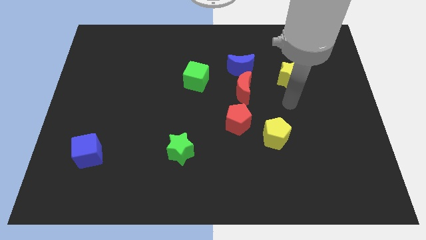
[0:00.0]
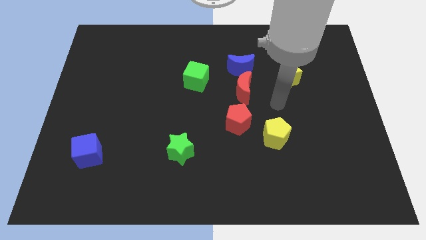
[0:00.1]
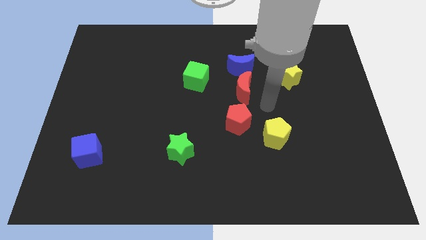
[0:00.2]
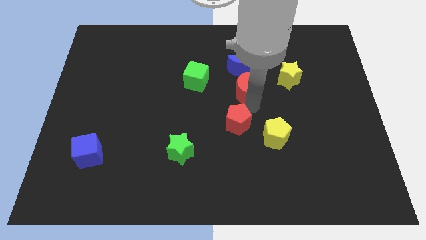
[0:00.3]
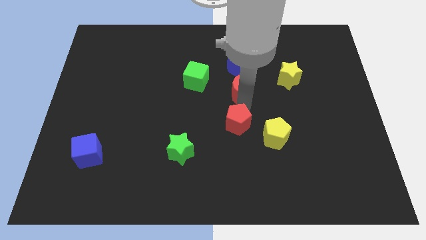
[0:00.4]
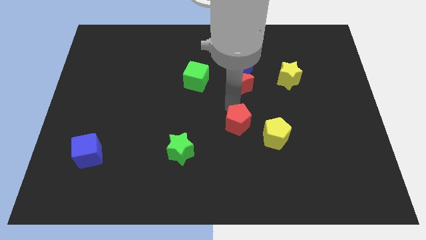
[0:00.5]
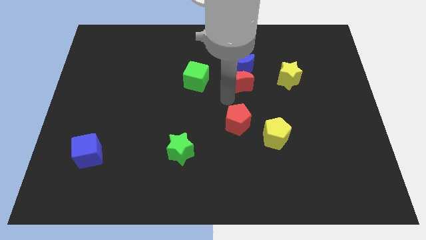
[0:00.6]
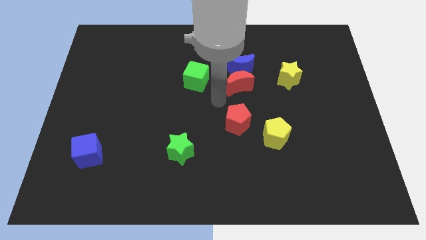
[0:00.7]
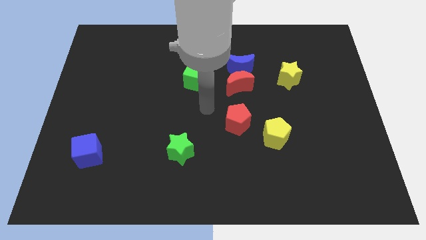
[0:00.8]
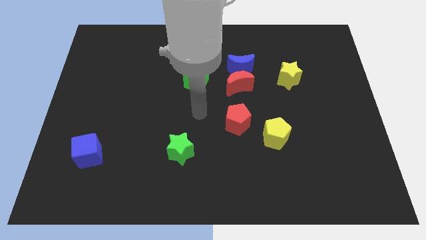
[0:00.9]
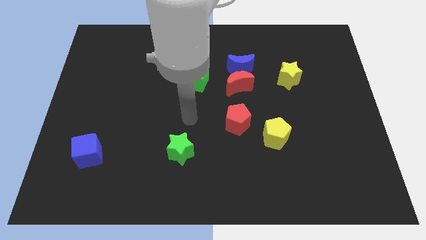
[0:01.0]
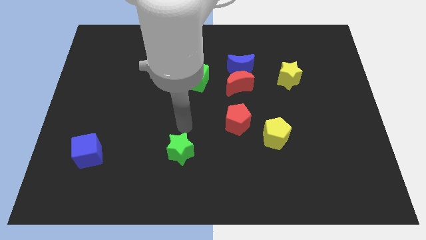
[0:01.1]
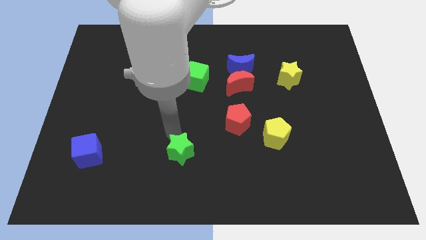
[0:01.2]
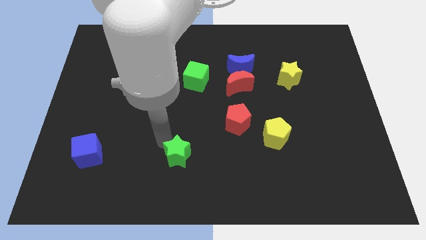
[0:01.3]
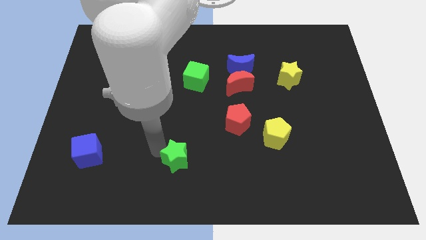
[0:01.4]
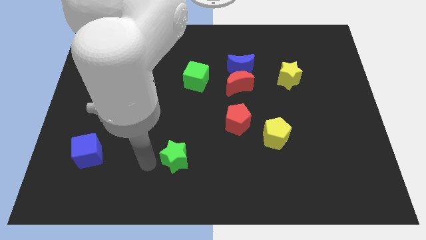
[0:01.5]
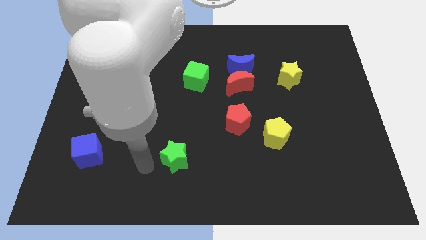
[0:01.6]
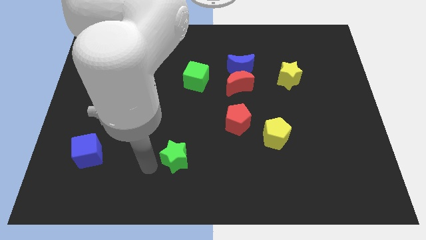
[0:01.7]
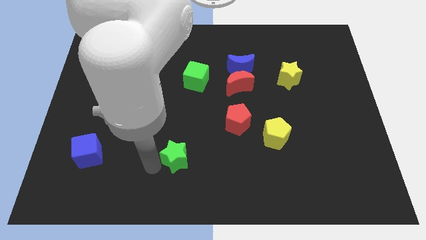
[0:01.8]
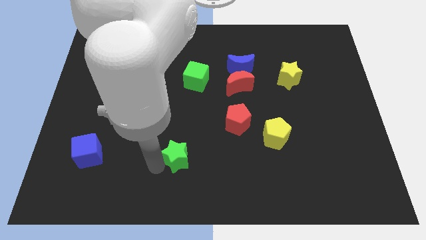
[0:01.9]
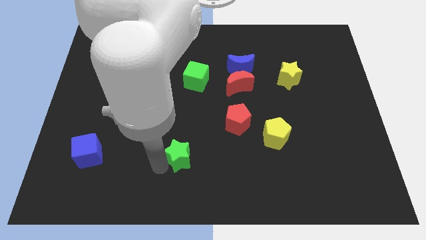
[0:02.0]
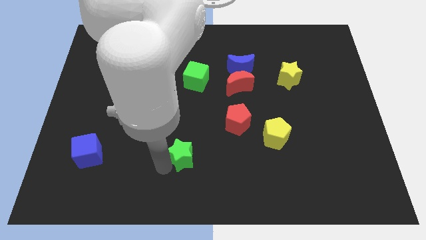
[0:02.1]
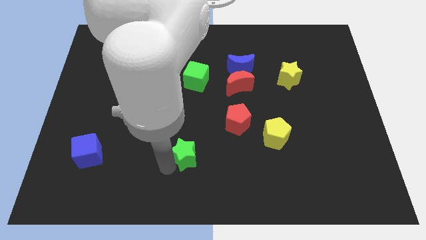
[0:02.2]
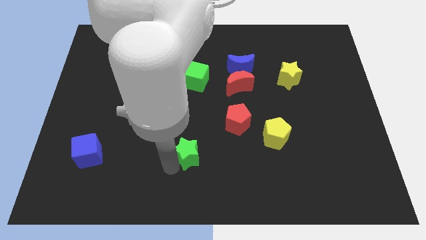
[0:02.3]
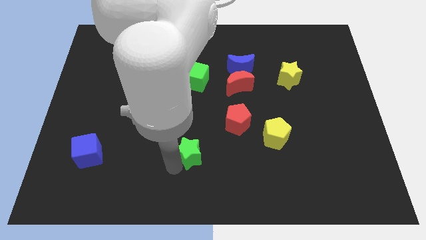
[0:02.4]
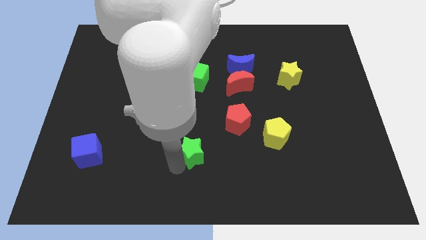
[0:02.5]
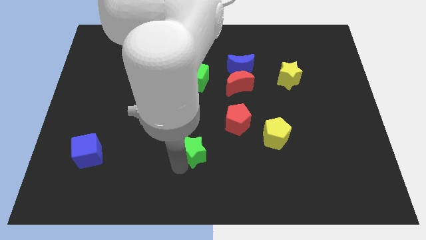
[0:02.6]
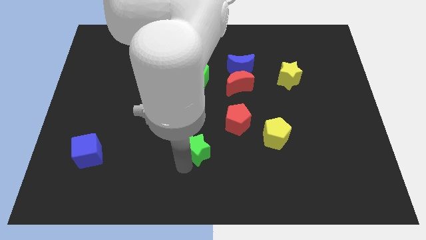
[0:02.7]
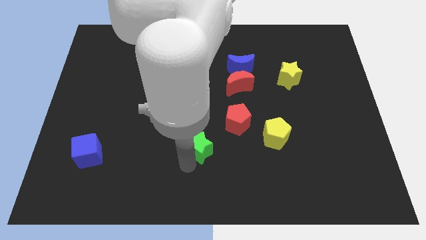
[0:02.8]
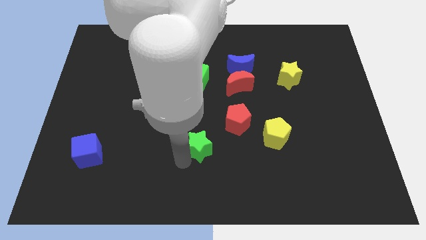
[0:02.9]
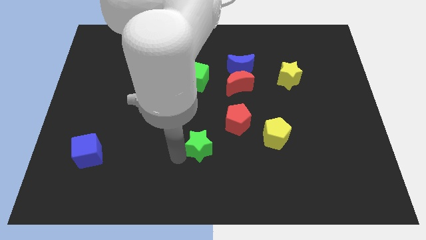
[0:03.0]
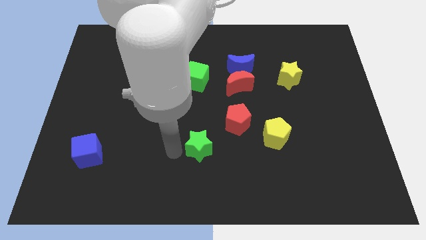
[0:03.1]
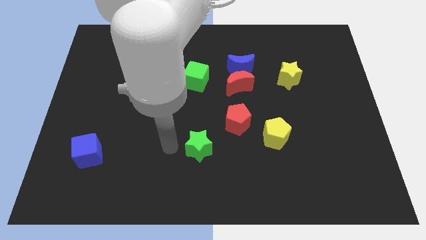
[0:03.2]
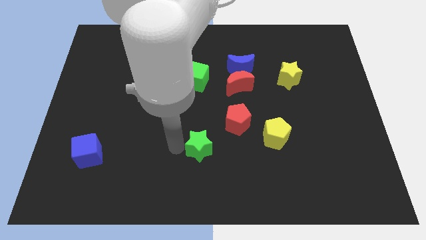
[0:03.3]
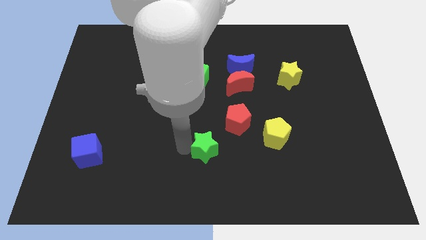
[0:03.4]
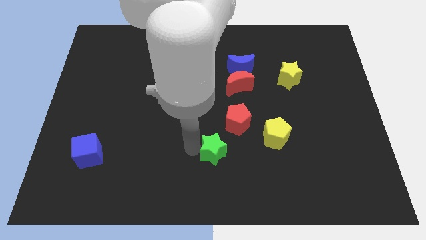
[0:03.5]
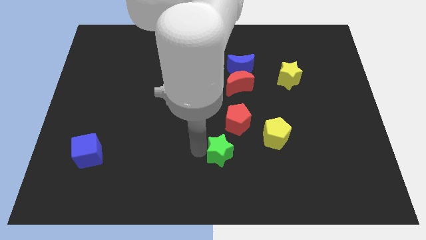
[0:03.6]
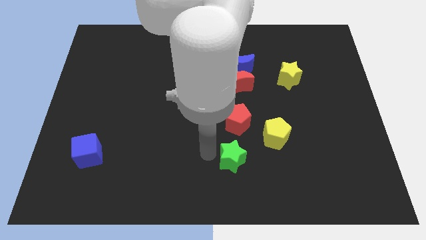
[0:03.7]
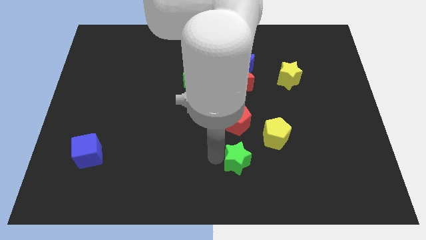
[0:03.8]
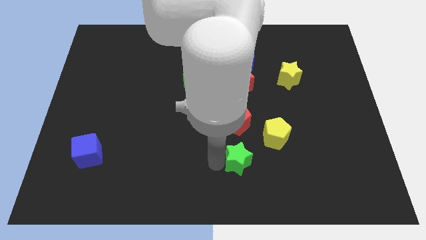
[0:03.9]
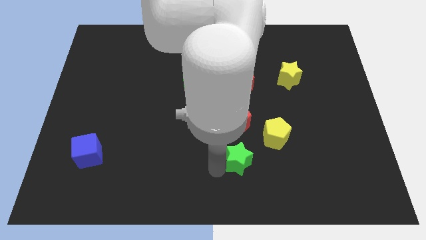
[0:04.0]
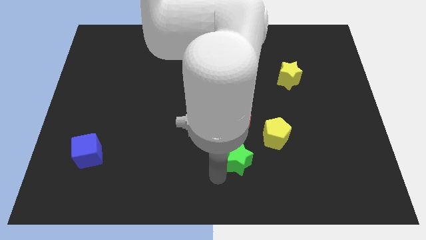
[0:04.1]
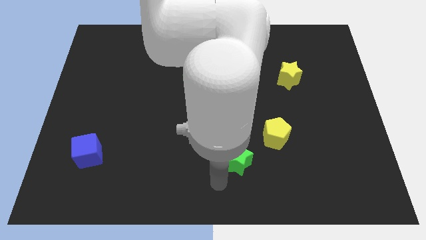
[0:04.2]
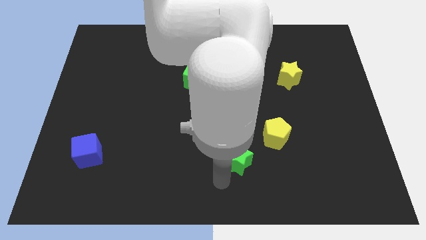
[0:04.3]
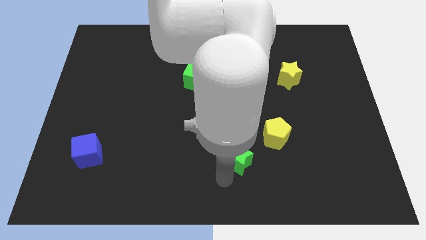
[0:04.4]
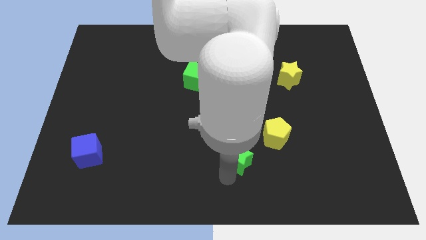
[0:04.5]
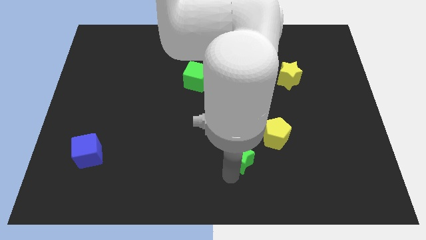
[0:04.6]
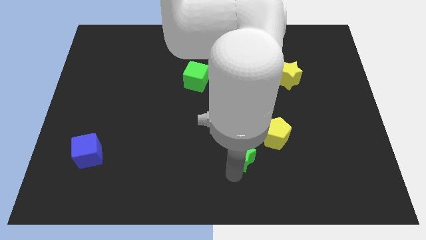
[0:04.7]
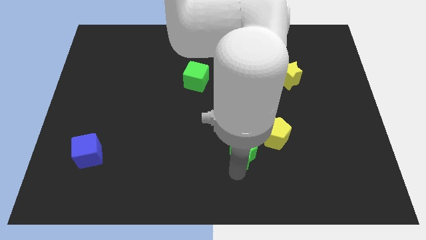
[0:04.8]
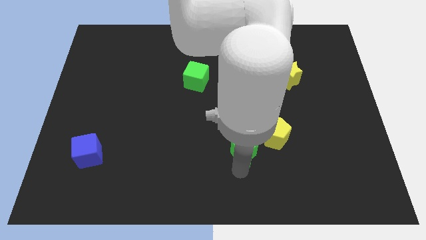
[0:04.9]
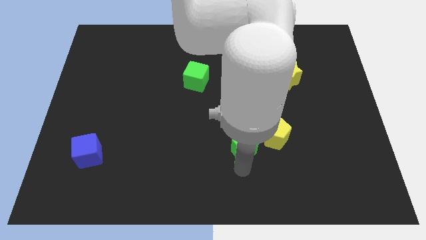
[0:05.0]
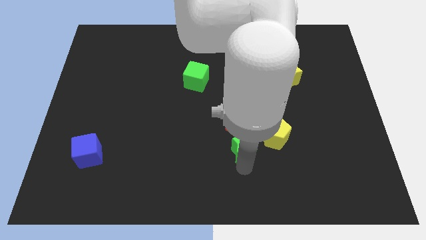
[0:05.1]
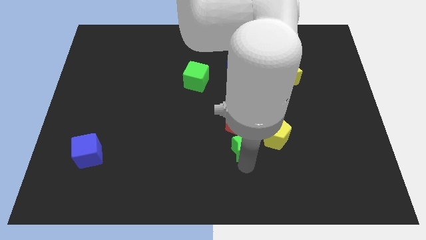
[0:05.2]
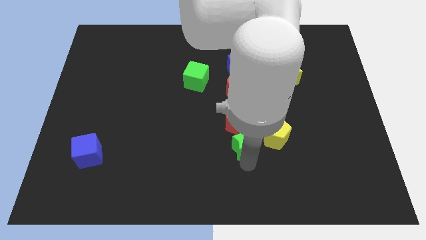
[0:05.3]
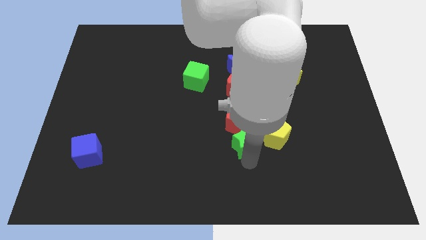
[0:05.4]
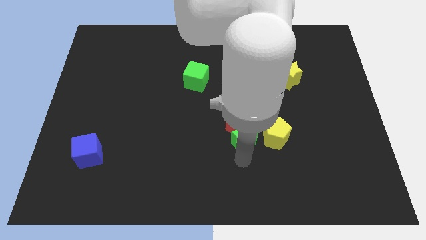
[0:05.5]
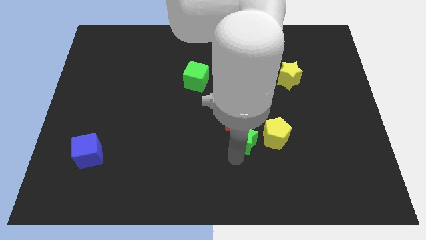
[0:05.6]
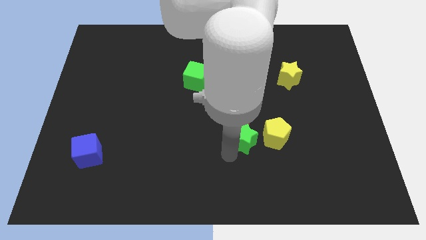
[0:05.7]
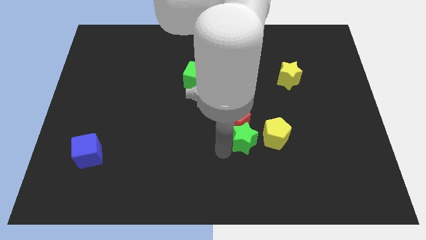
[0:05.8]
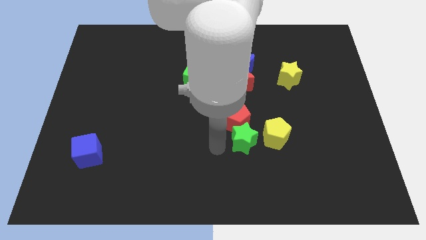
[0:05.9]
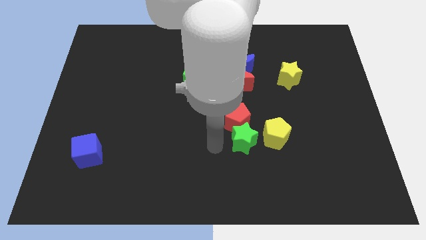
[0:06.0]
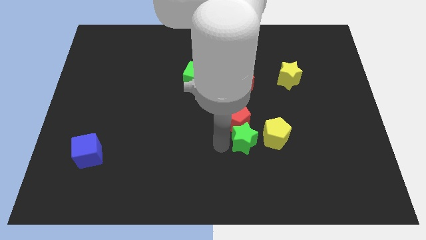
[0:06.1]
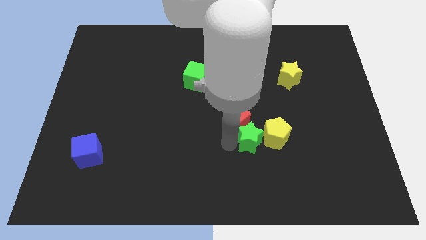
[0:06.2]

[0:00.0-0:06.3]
push the green star to the yellow pentagon
